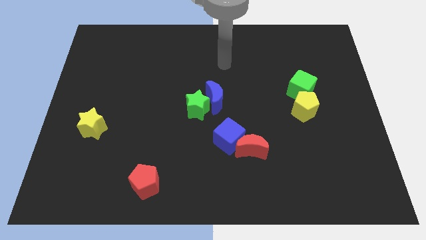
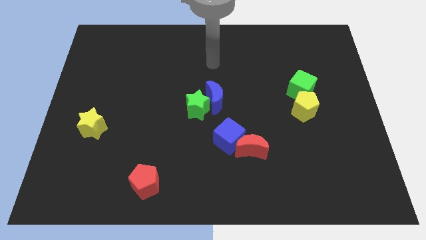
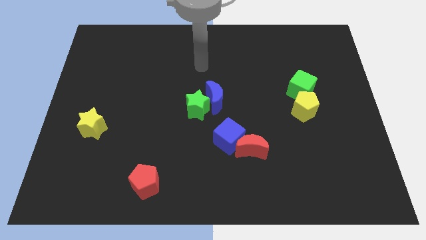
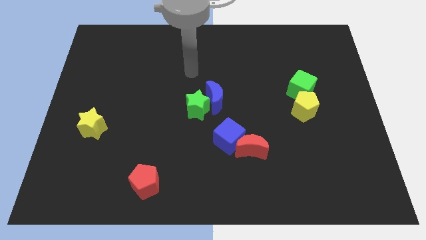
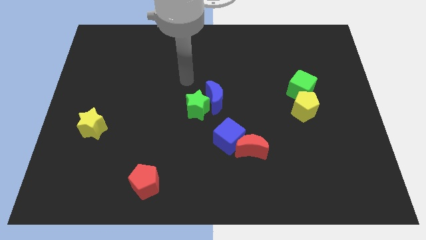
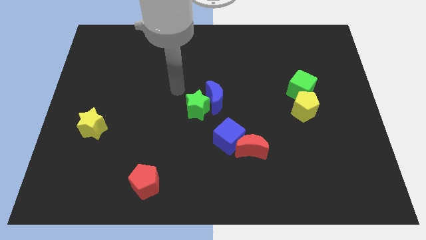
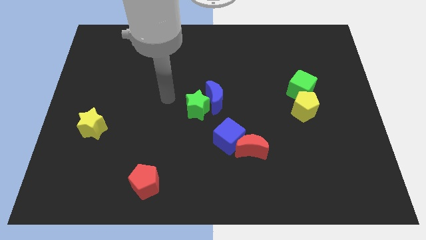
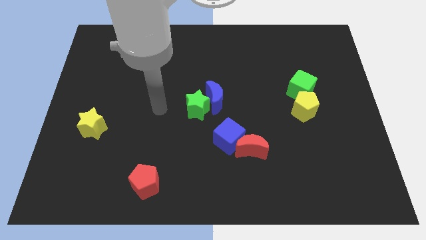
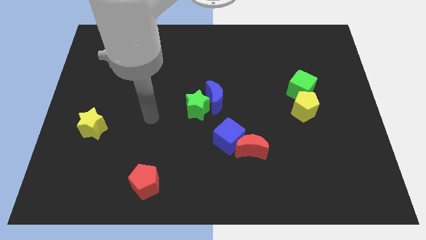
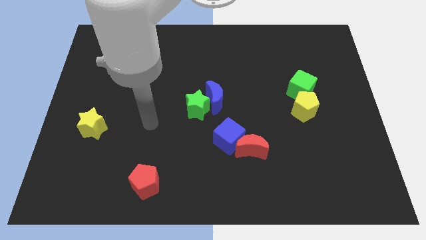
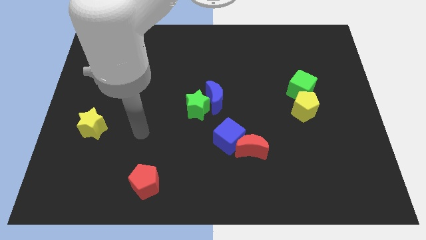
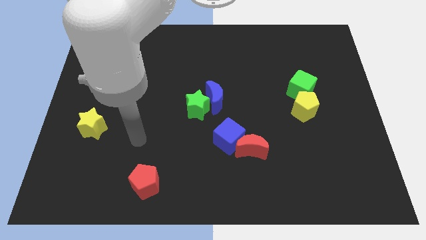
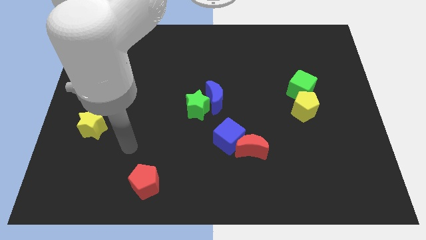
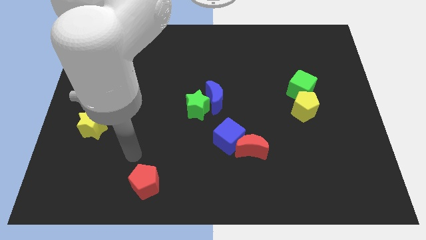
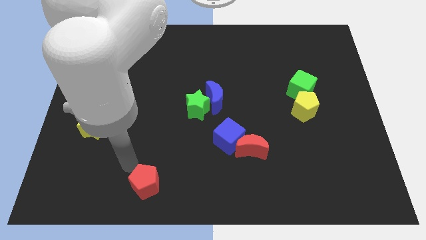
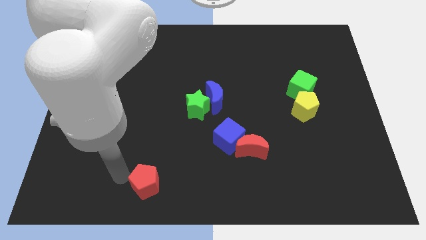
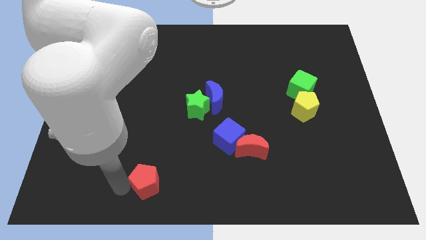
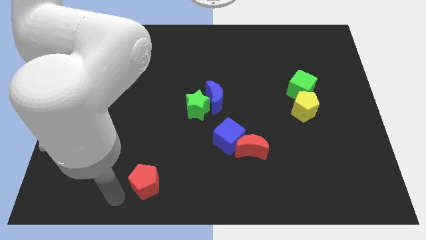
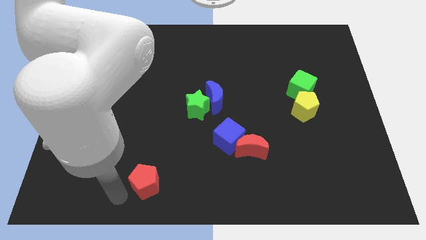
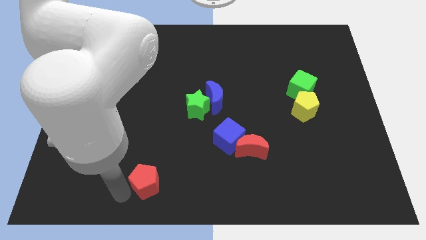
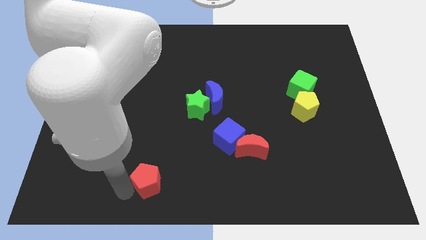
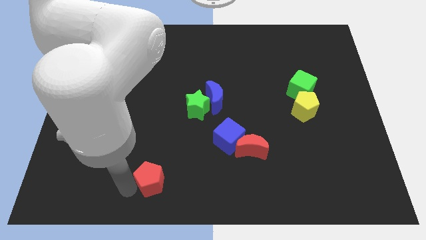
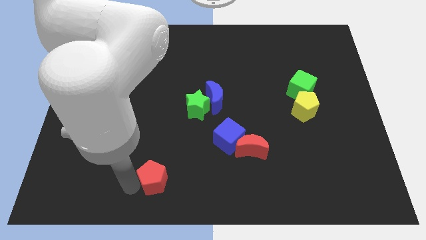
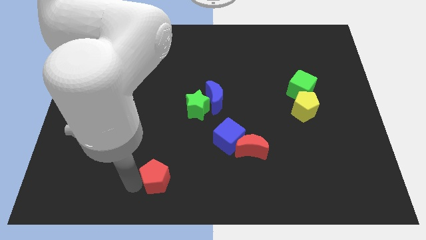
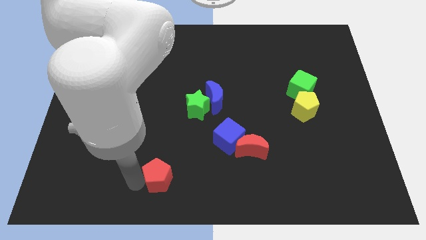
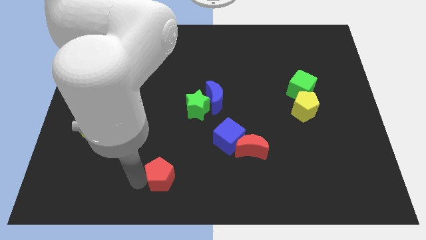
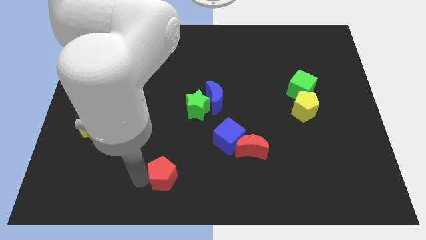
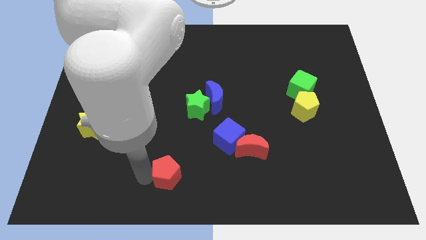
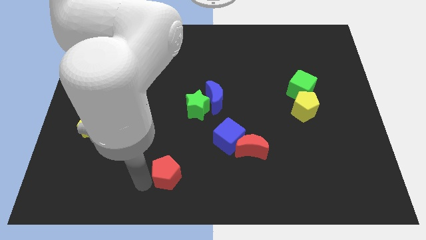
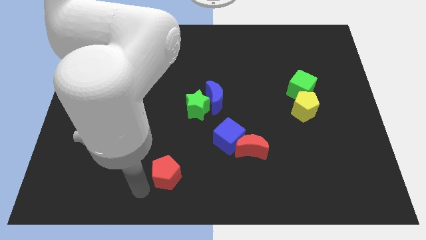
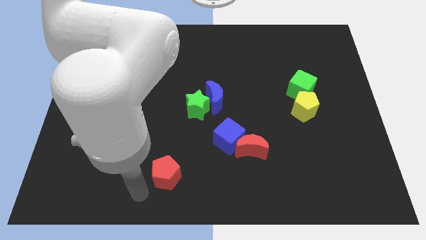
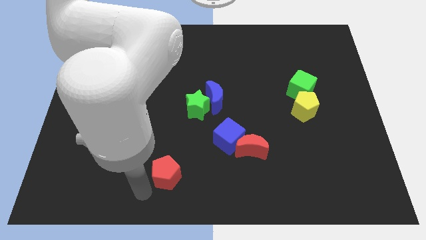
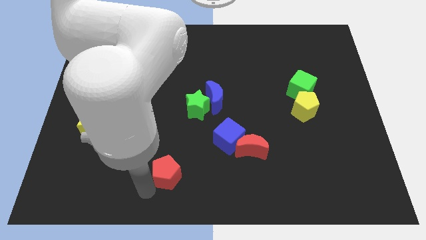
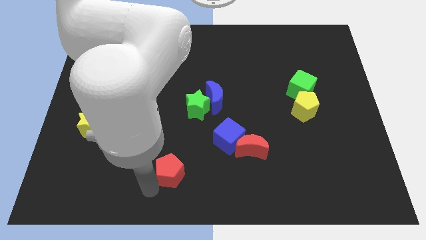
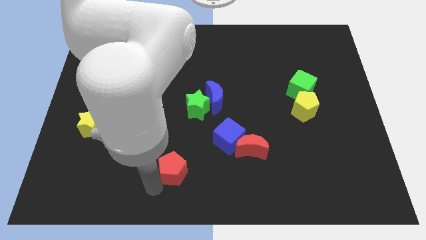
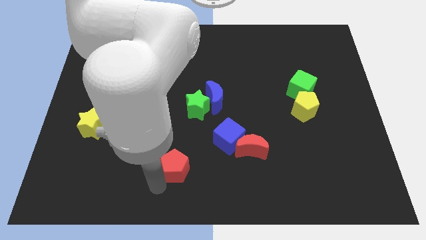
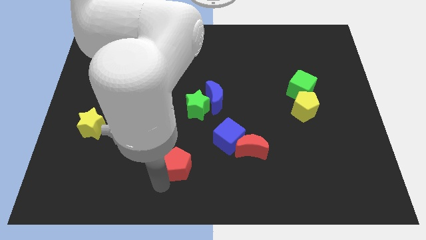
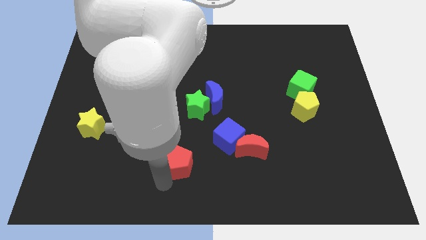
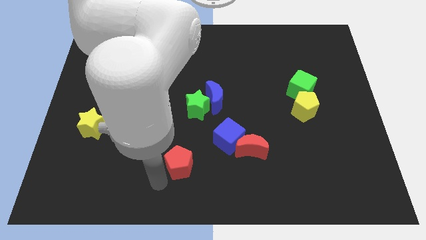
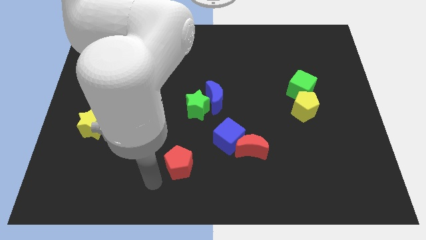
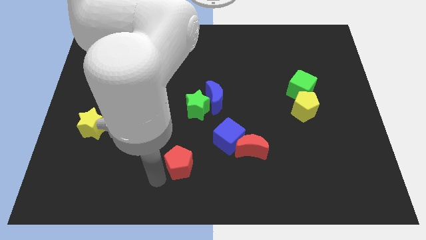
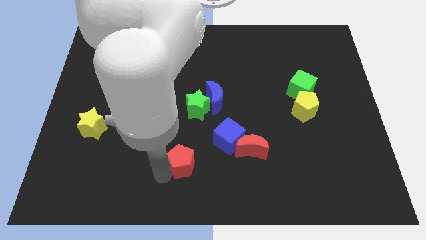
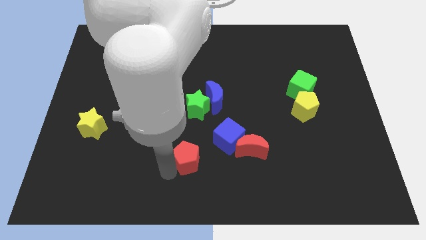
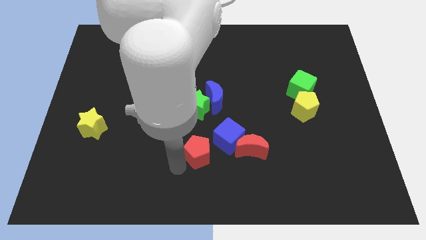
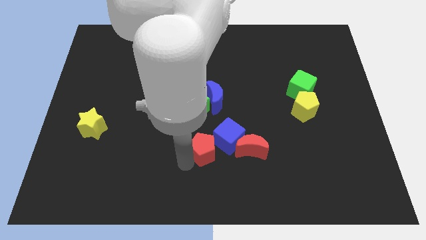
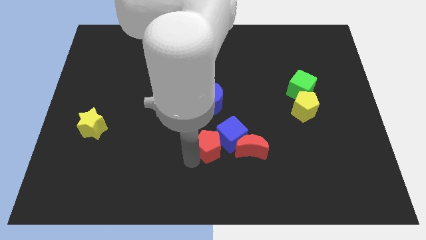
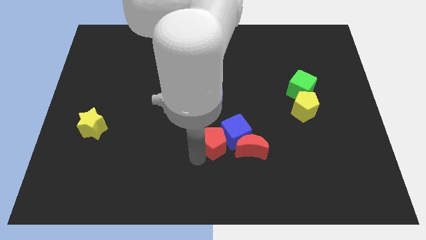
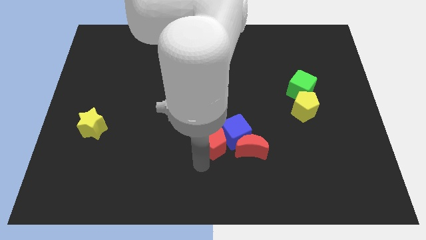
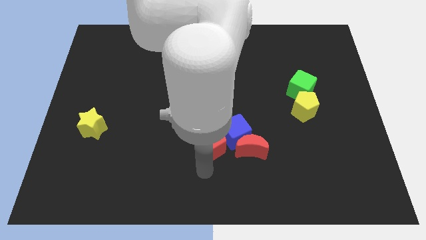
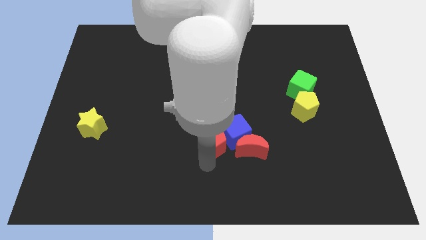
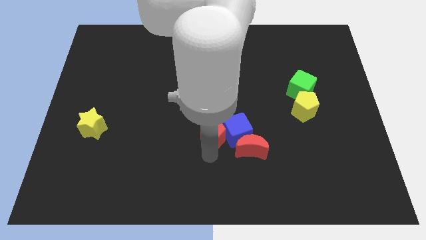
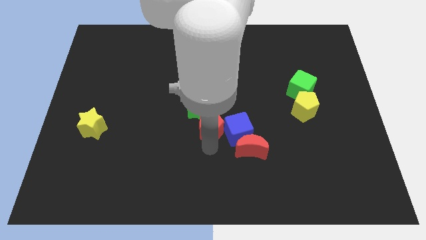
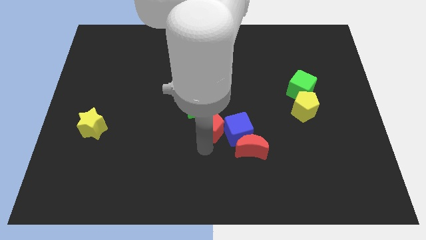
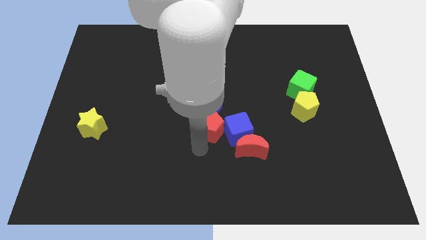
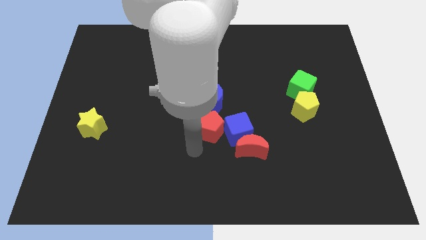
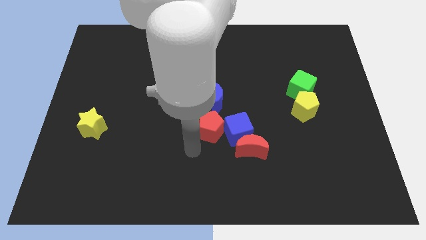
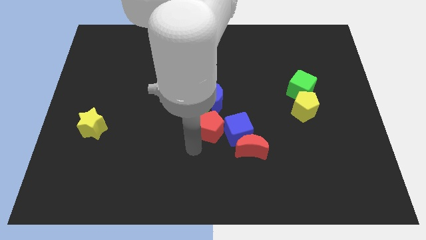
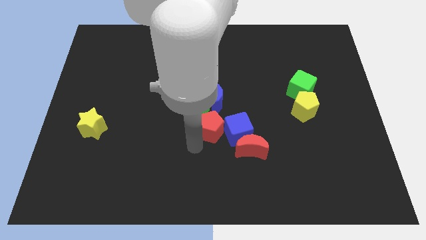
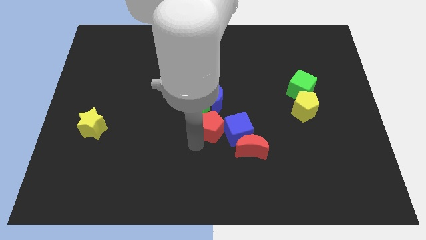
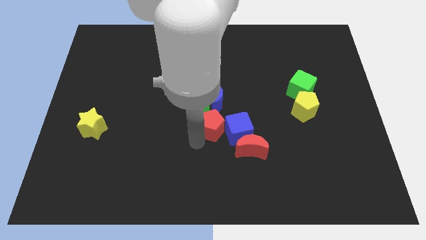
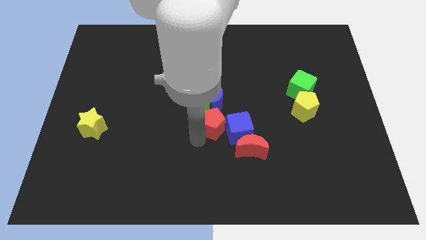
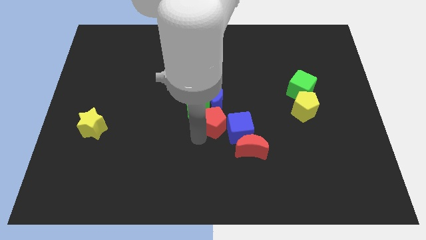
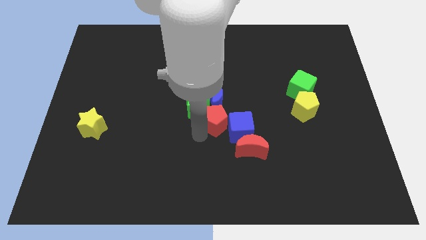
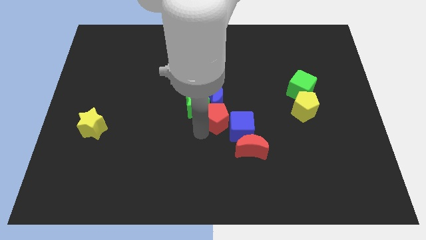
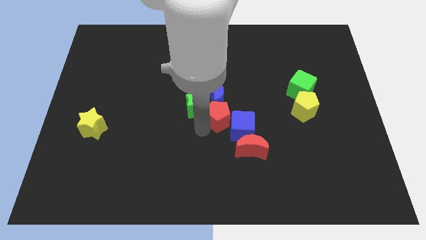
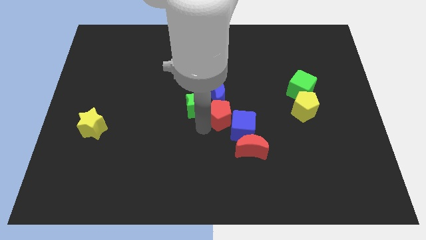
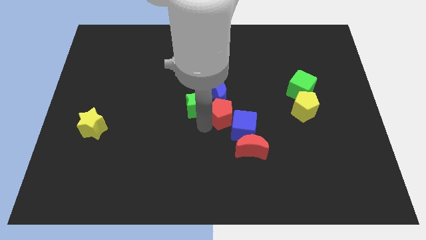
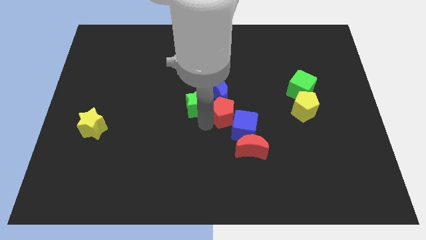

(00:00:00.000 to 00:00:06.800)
move the red pentagon above the blue cube

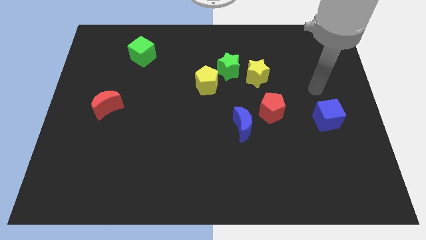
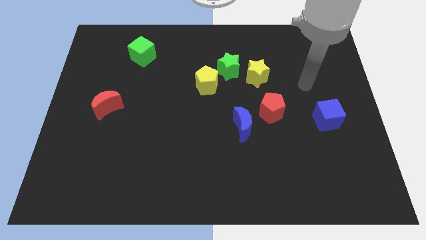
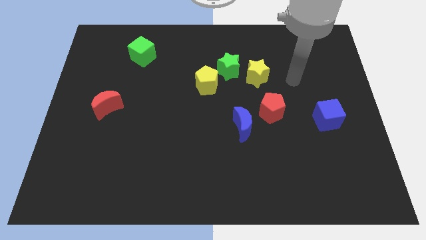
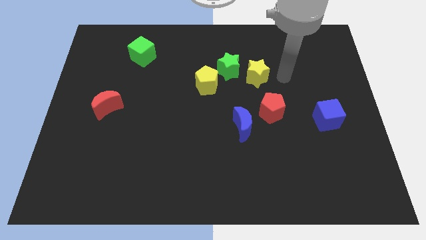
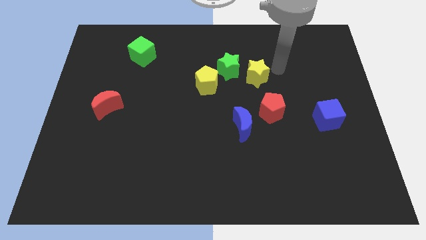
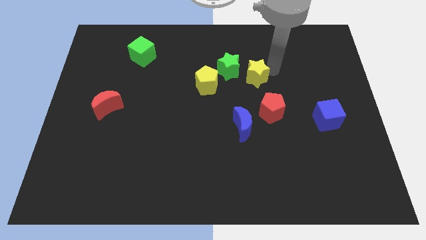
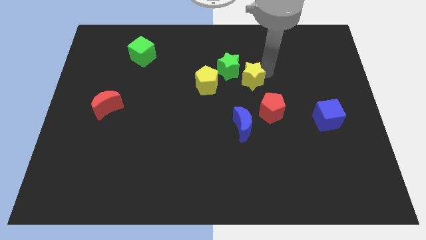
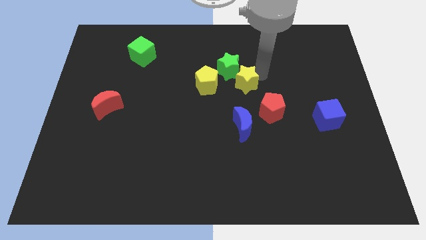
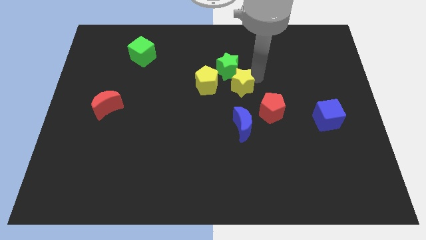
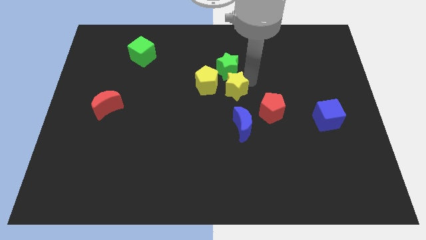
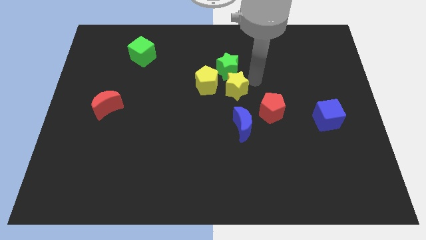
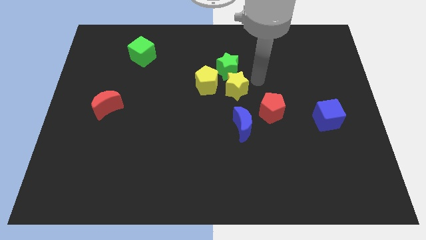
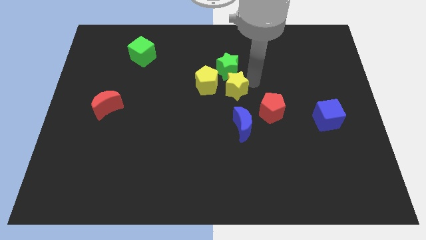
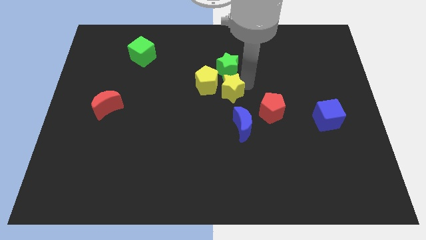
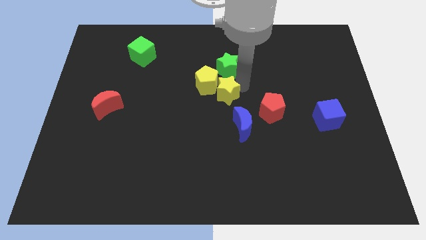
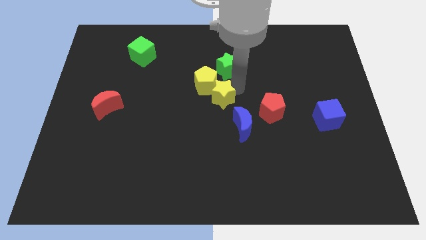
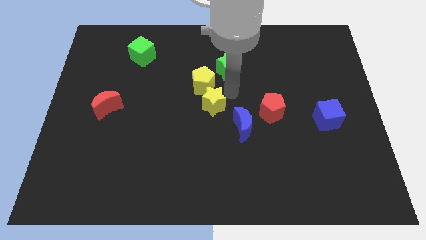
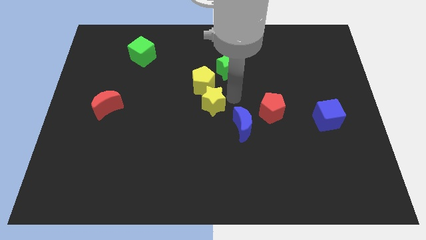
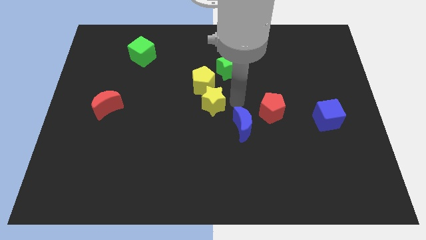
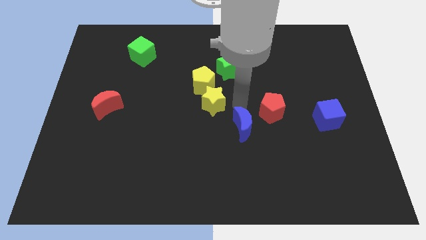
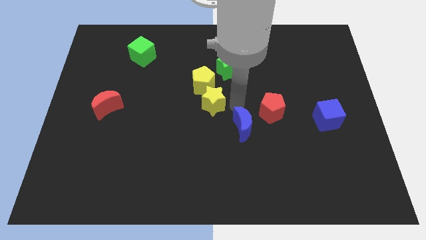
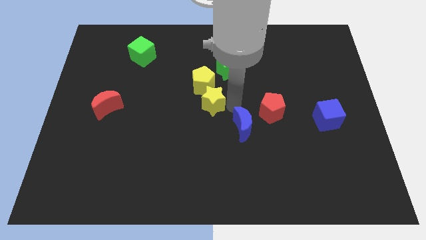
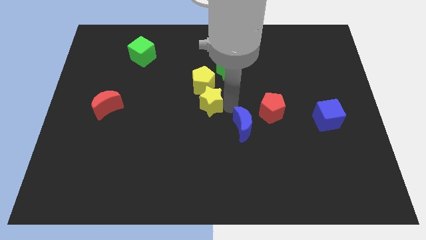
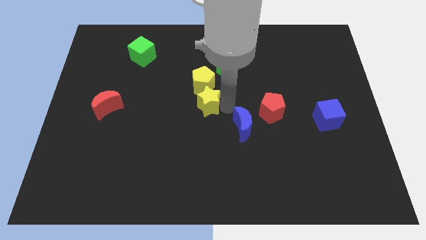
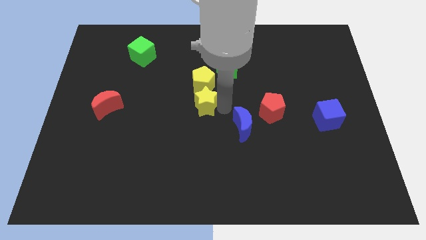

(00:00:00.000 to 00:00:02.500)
put the yellow star to the bottom left side of the yellow pentagon
